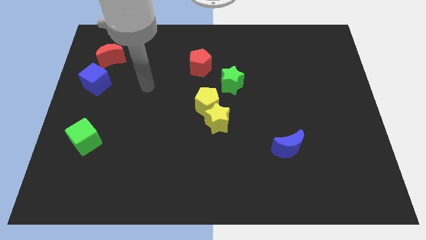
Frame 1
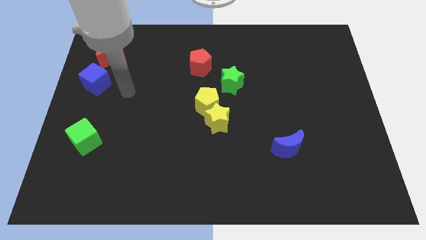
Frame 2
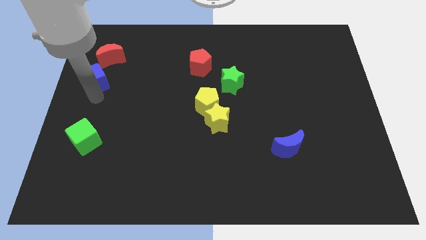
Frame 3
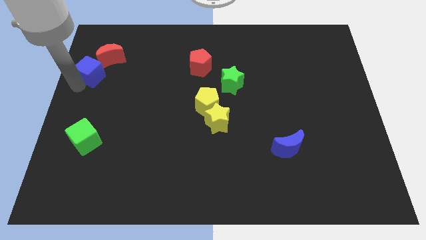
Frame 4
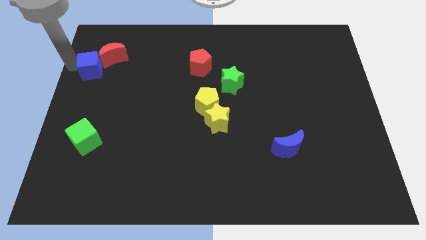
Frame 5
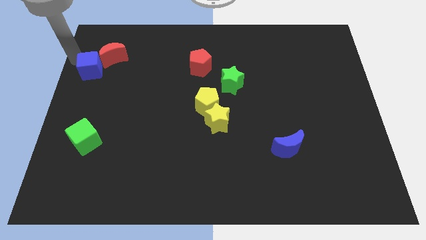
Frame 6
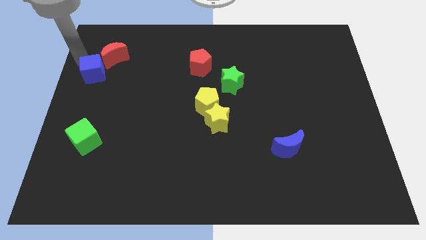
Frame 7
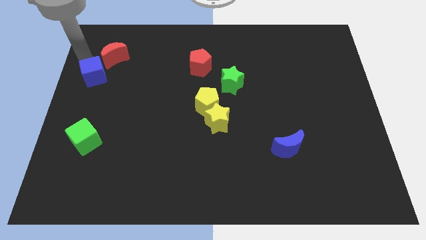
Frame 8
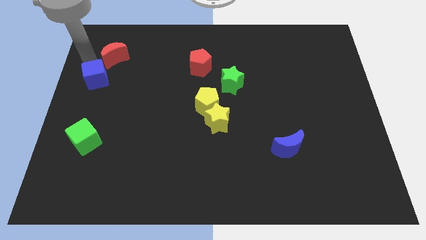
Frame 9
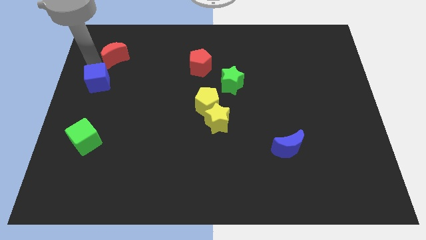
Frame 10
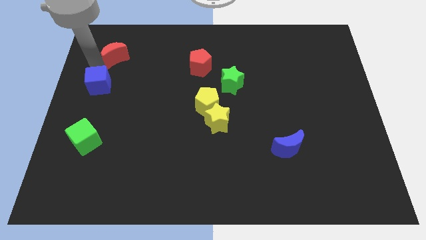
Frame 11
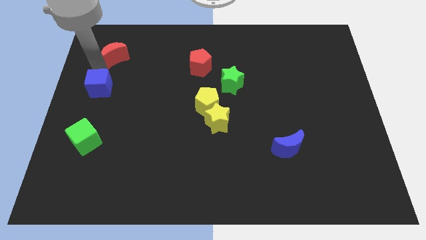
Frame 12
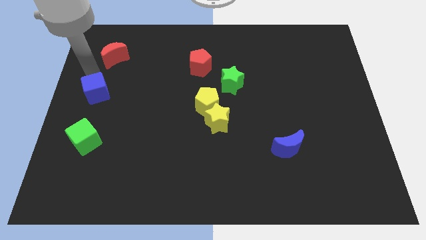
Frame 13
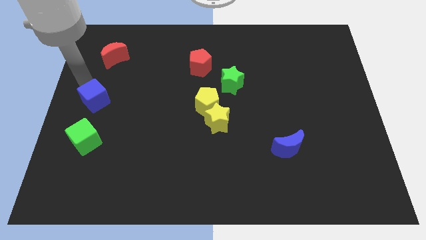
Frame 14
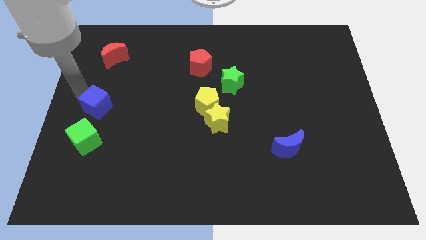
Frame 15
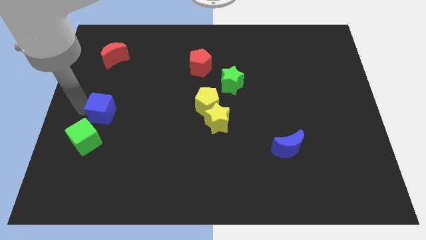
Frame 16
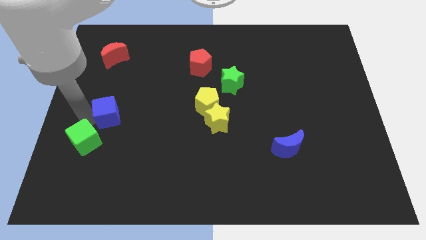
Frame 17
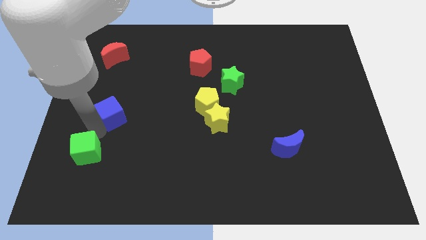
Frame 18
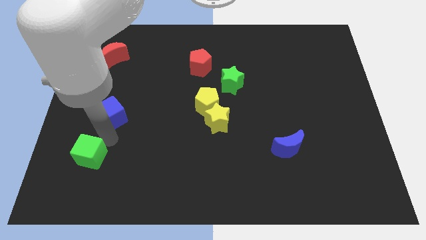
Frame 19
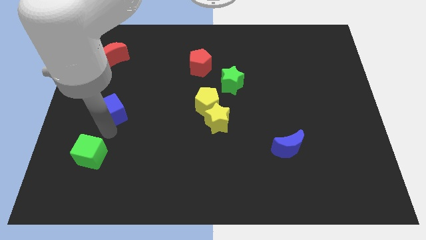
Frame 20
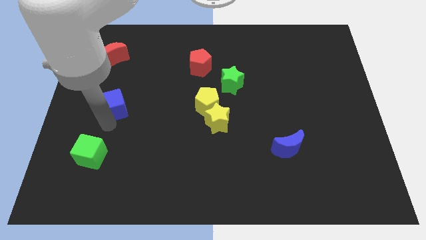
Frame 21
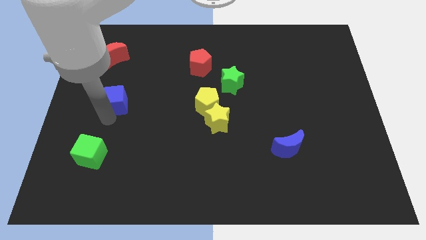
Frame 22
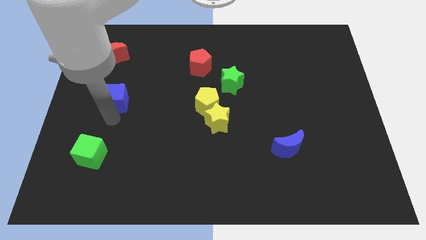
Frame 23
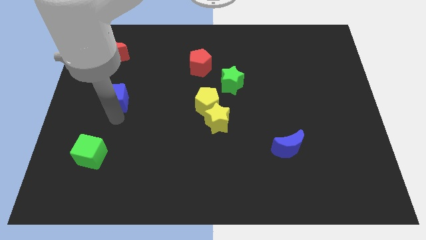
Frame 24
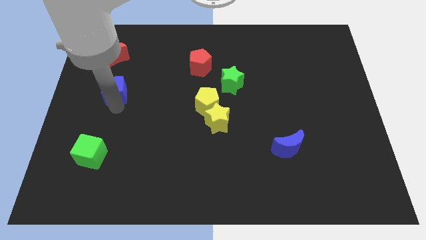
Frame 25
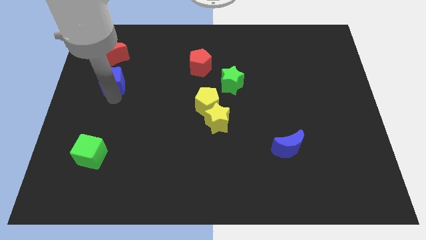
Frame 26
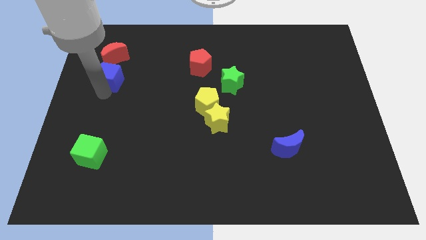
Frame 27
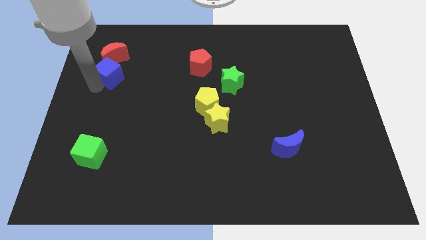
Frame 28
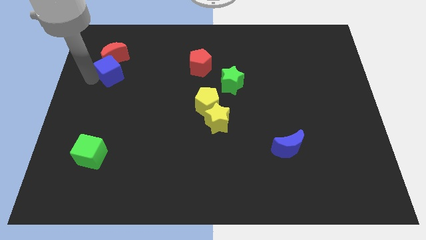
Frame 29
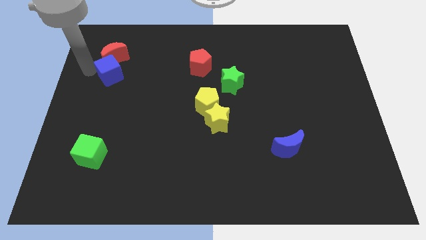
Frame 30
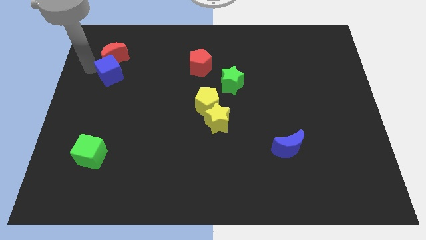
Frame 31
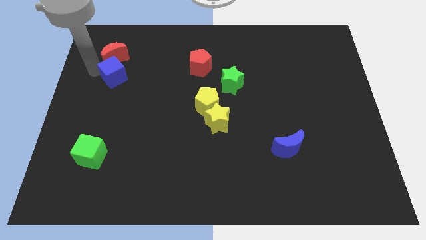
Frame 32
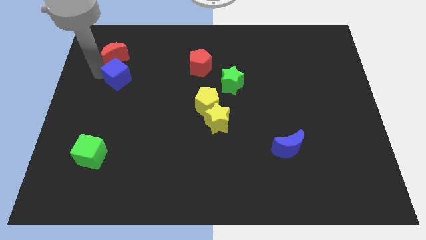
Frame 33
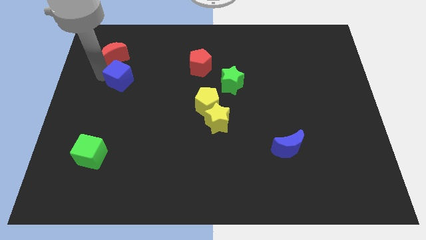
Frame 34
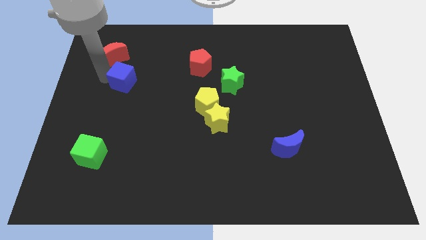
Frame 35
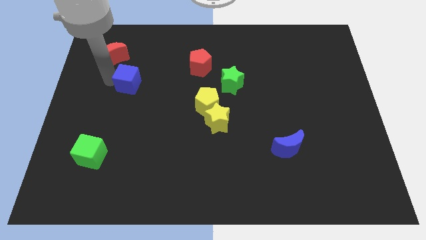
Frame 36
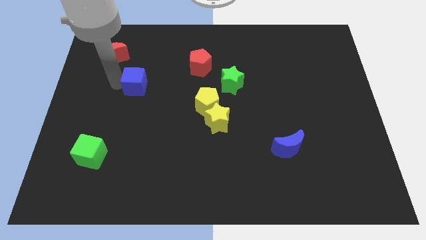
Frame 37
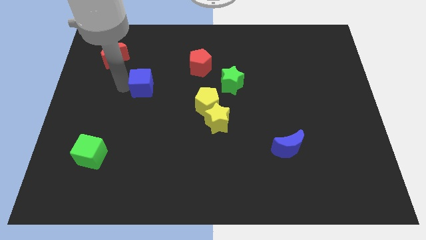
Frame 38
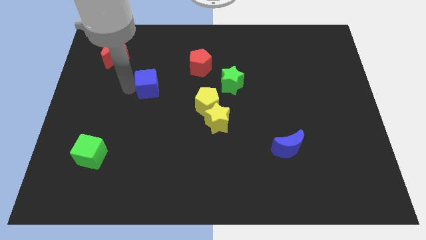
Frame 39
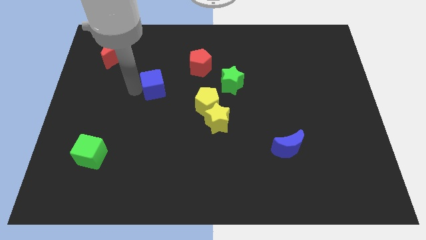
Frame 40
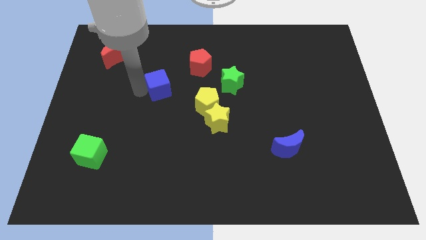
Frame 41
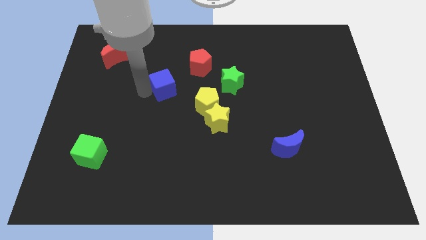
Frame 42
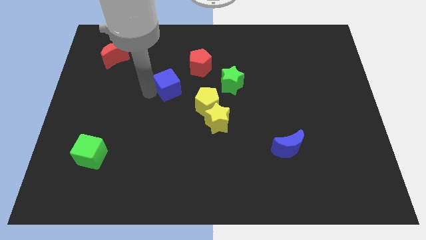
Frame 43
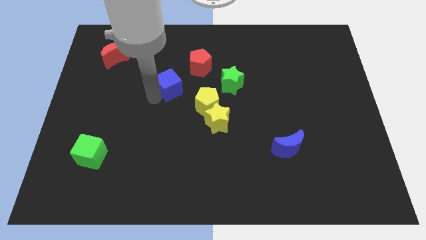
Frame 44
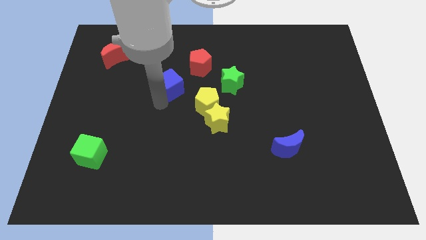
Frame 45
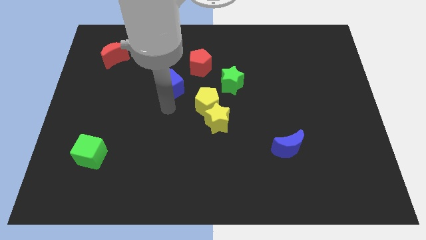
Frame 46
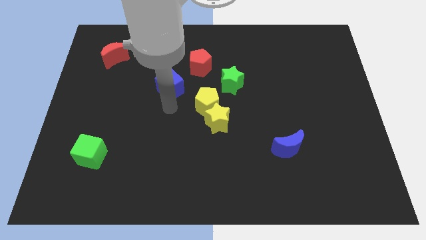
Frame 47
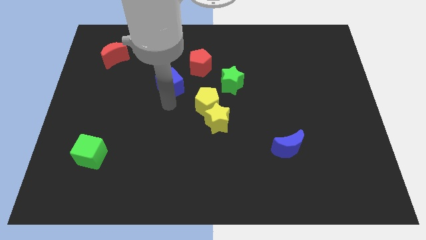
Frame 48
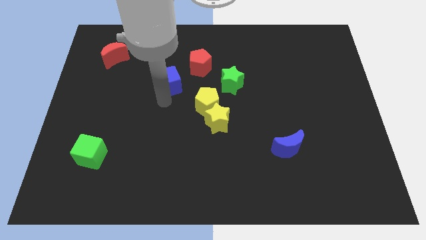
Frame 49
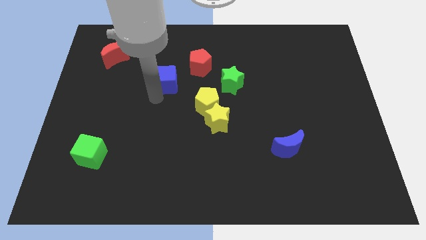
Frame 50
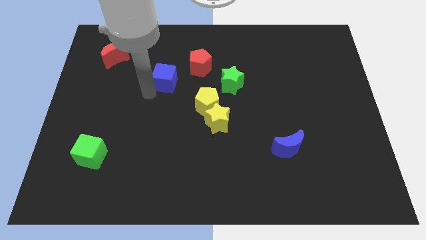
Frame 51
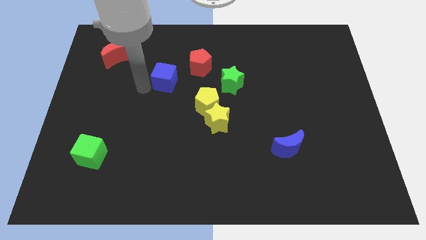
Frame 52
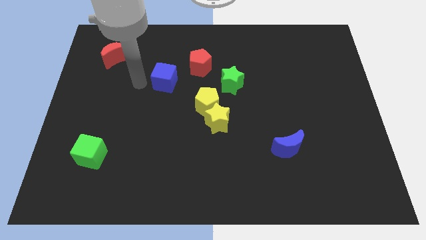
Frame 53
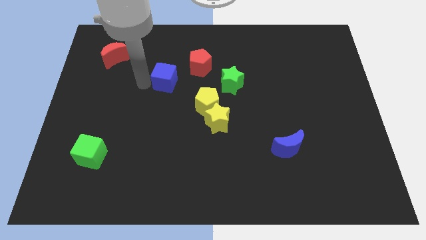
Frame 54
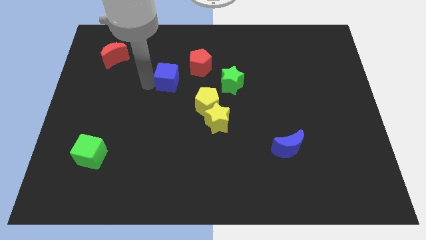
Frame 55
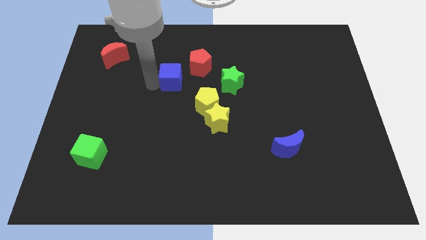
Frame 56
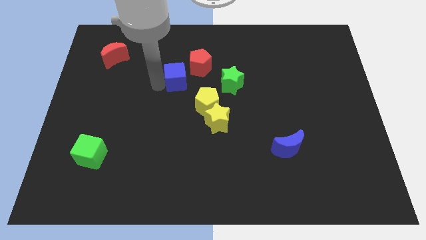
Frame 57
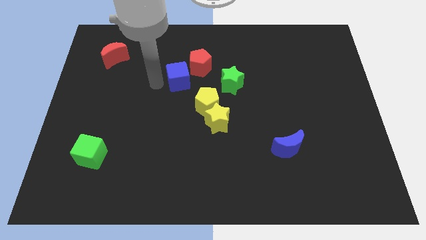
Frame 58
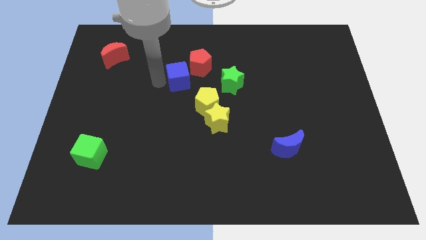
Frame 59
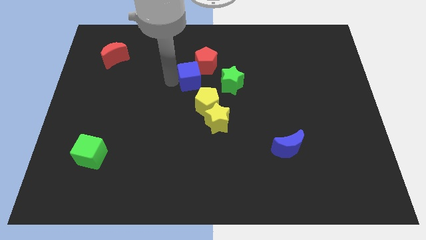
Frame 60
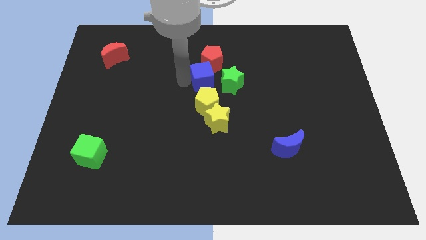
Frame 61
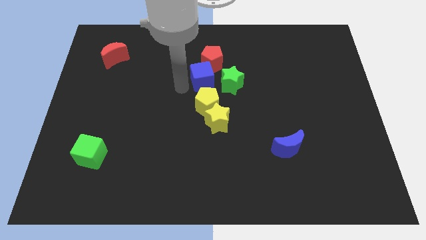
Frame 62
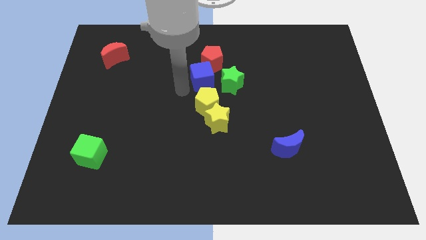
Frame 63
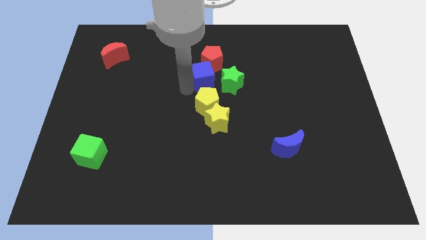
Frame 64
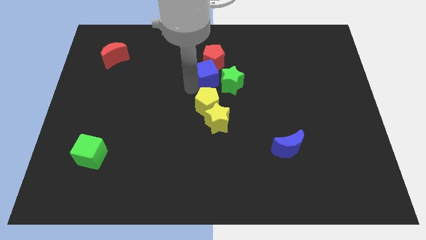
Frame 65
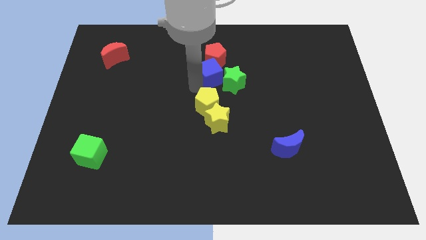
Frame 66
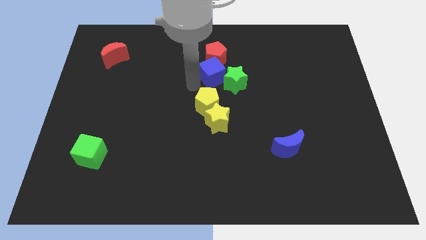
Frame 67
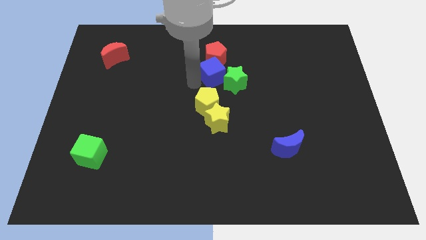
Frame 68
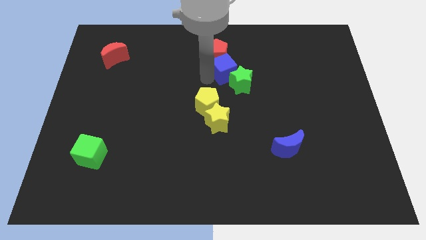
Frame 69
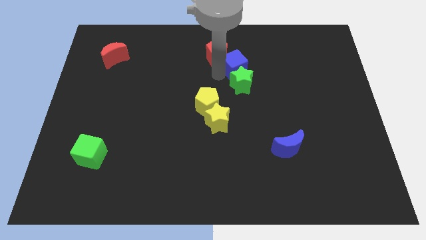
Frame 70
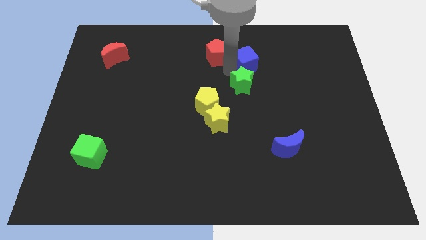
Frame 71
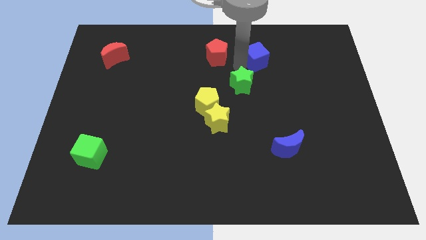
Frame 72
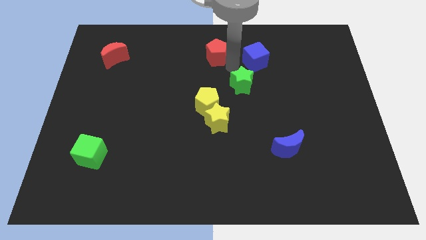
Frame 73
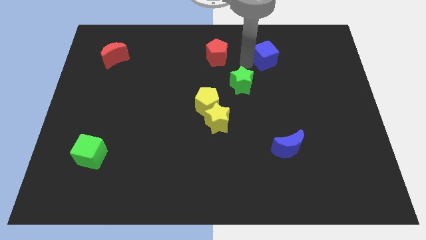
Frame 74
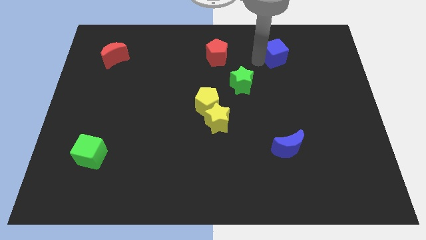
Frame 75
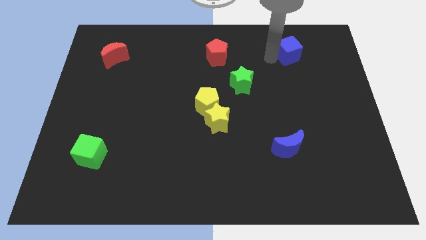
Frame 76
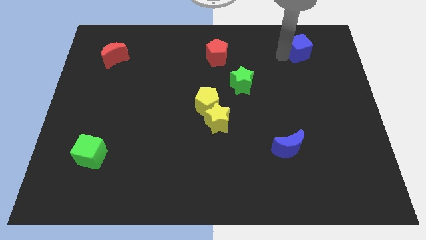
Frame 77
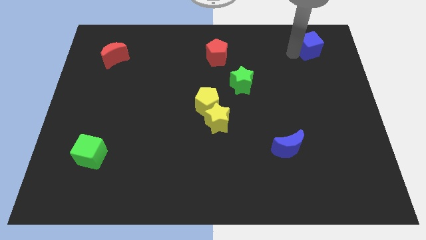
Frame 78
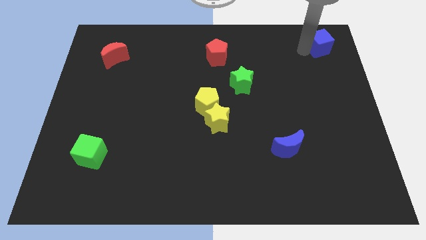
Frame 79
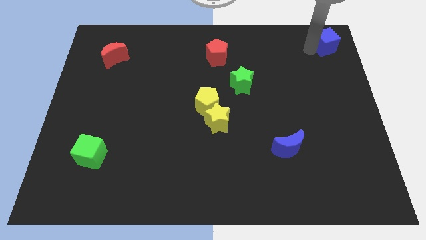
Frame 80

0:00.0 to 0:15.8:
slide the blue cube to the top right
